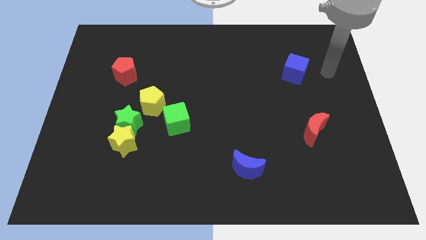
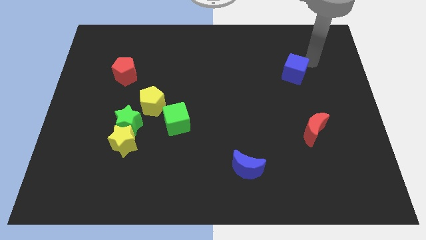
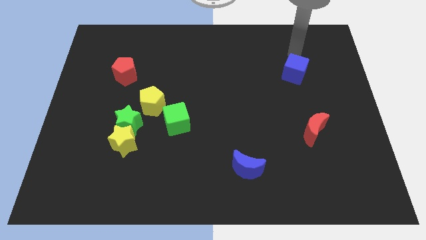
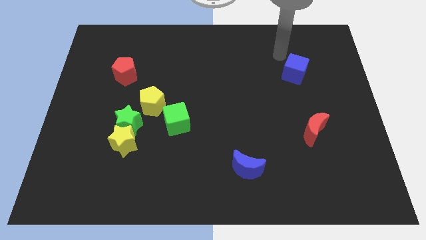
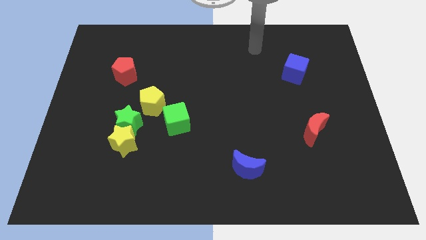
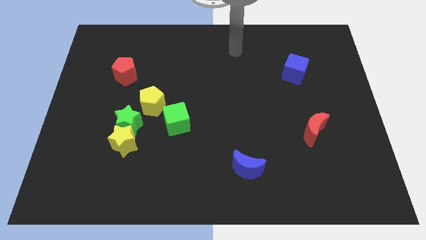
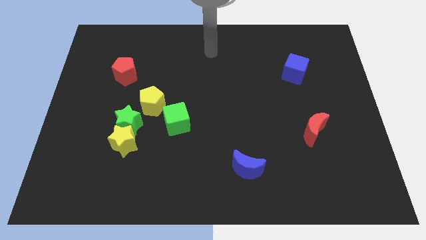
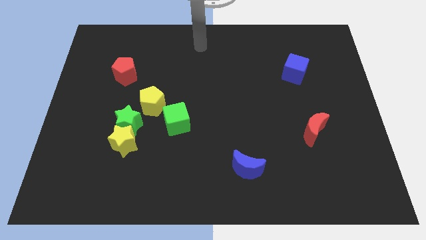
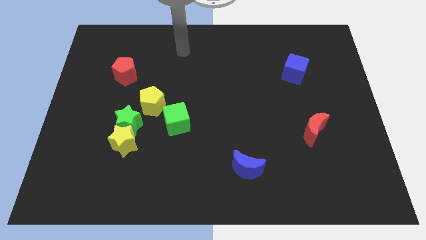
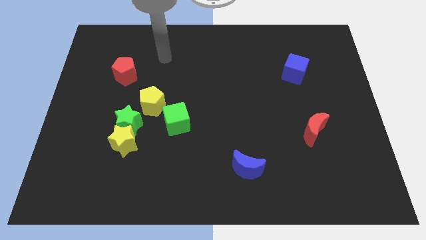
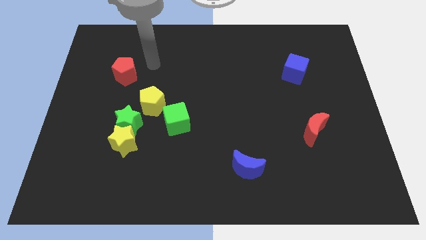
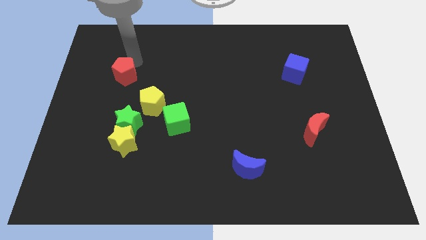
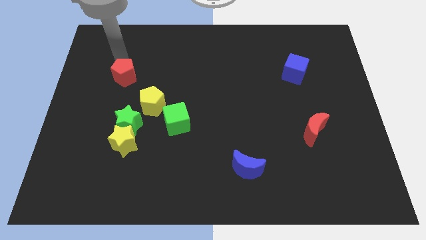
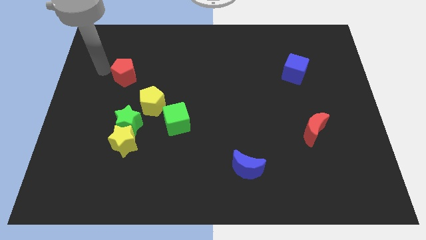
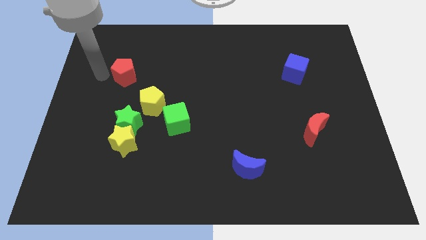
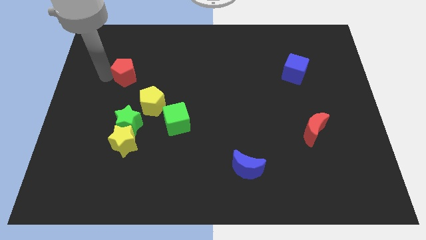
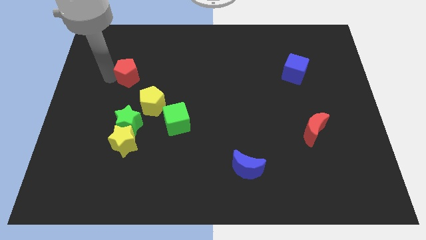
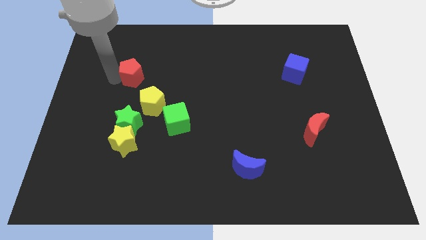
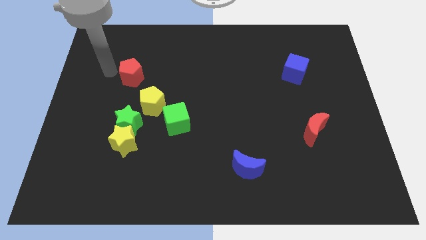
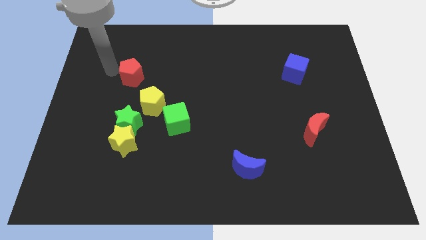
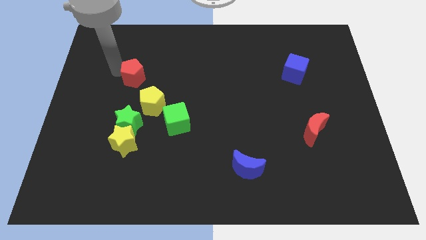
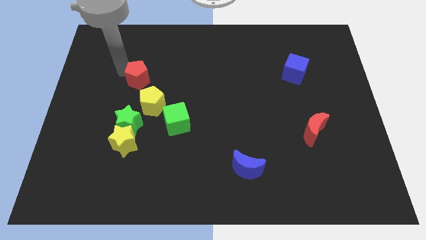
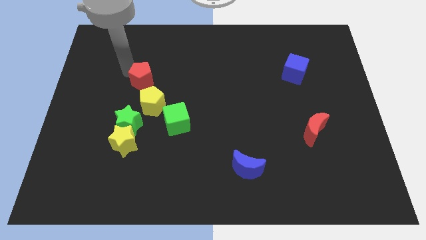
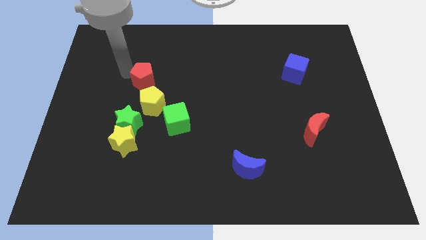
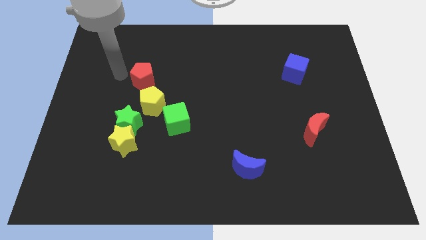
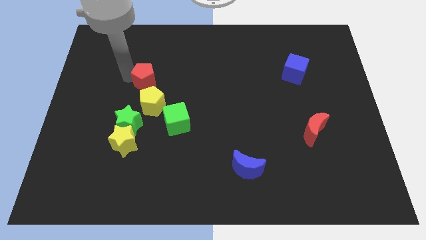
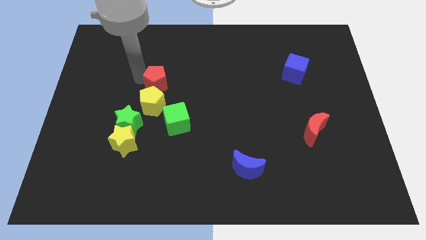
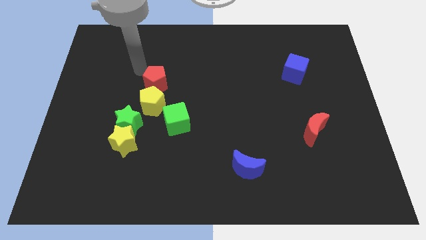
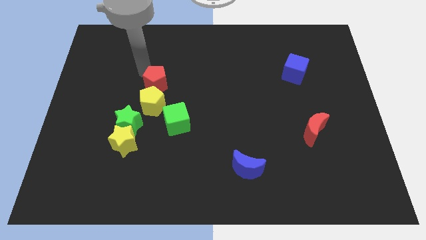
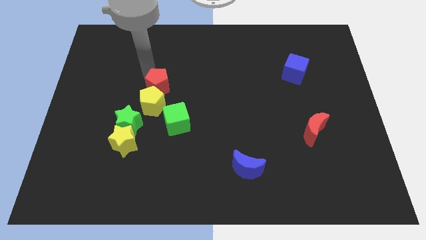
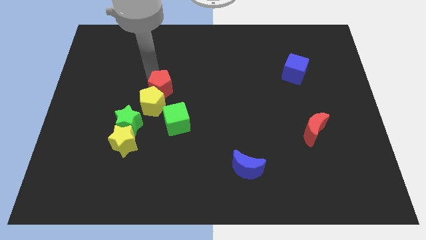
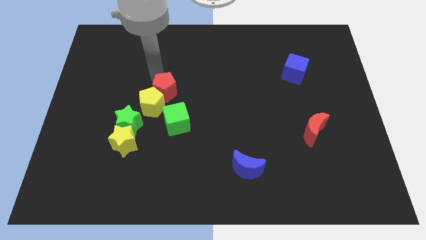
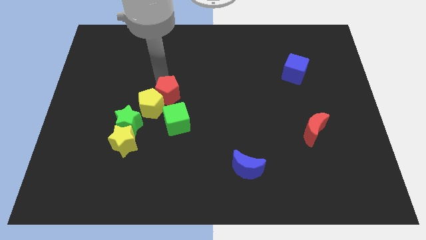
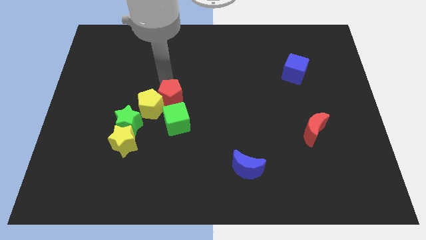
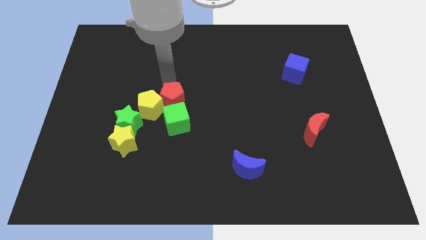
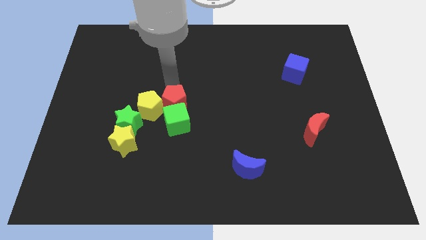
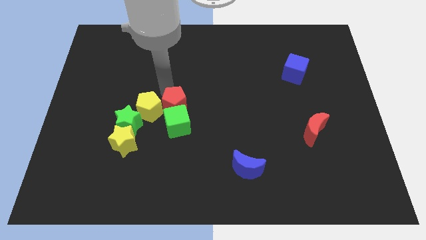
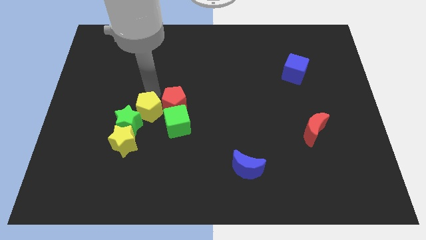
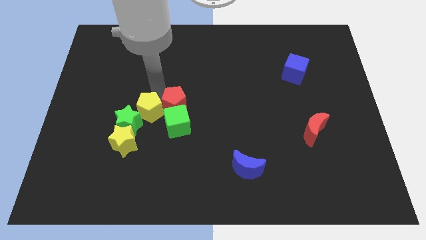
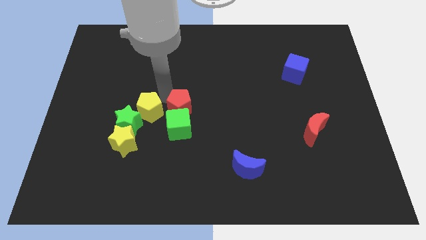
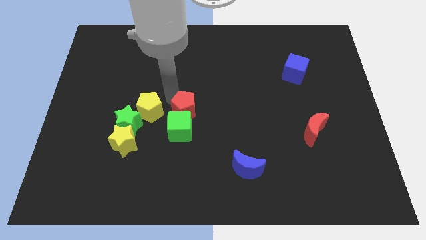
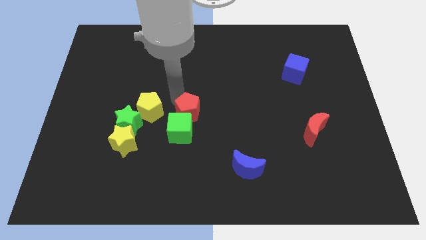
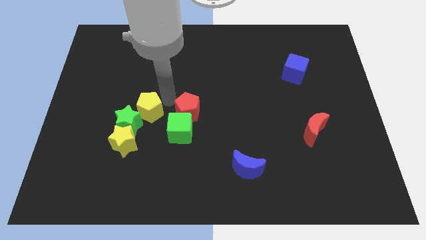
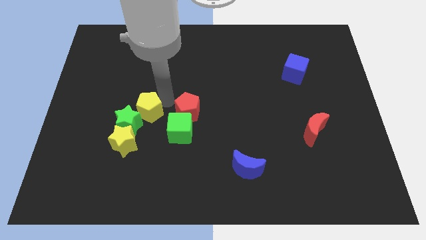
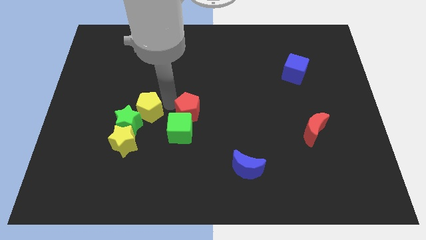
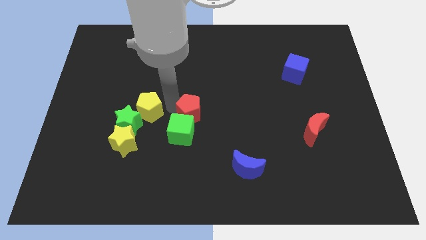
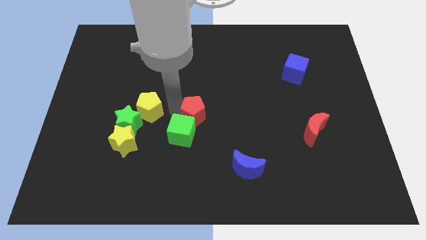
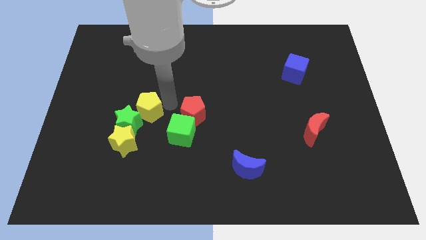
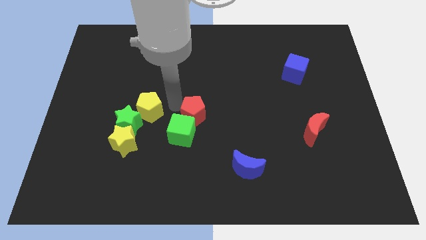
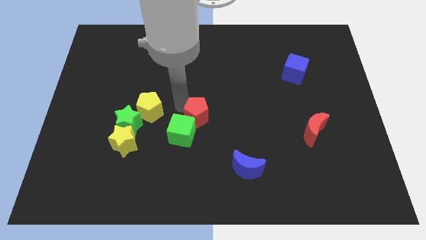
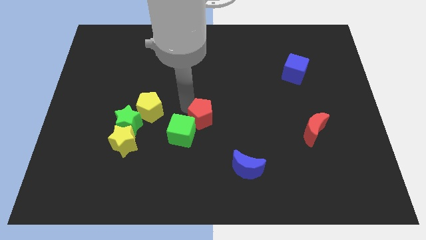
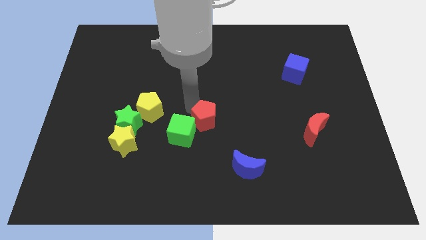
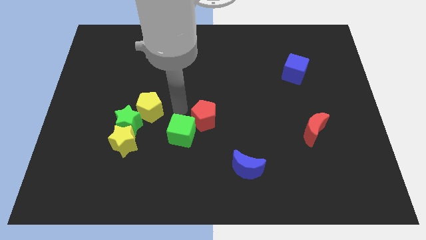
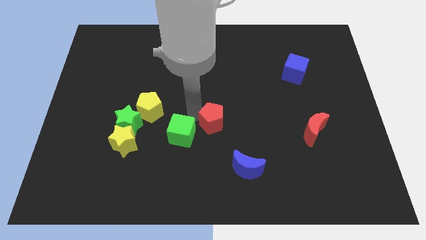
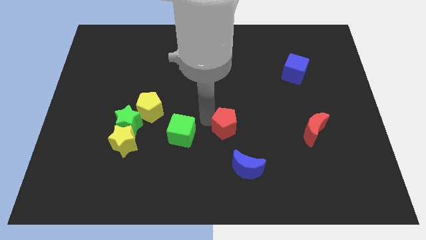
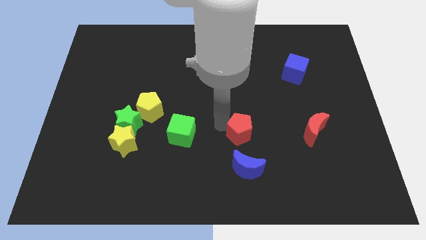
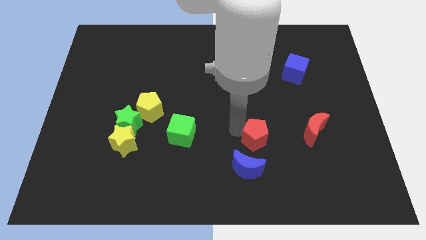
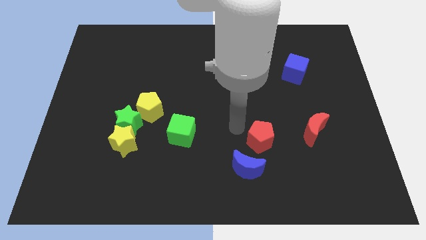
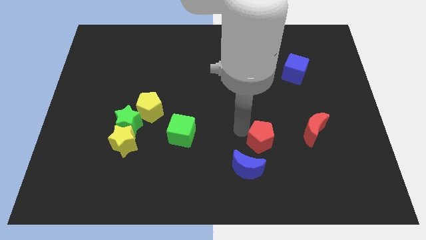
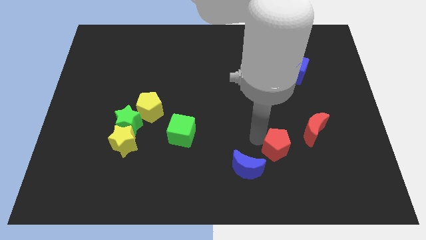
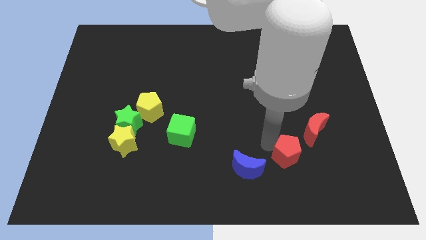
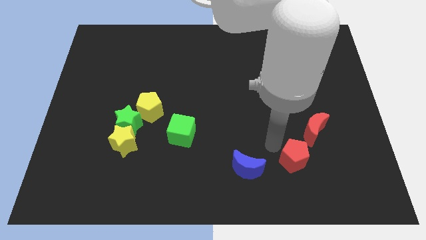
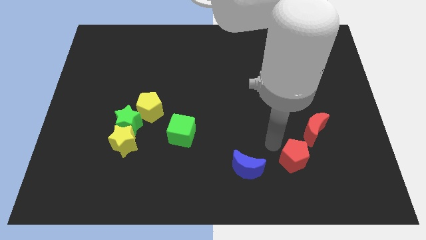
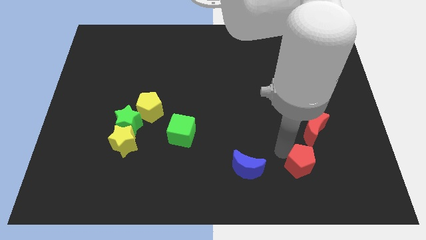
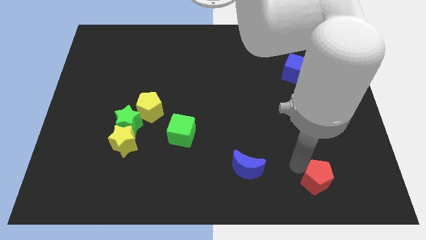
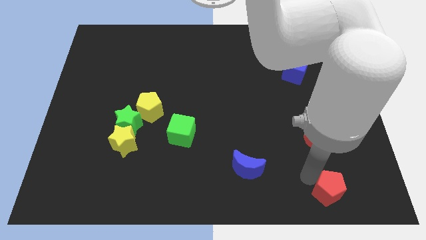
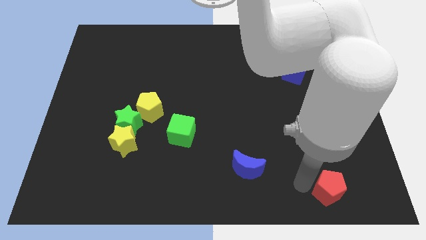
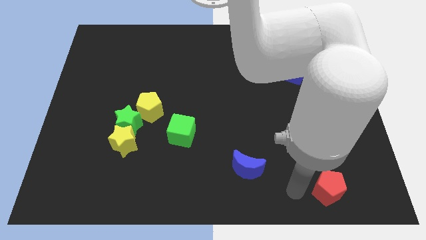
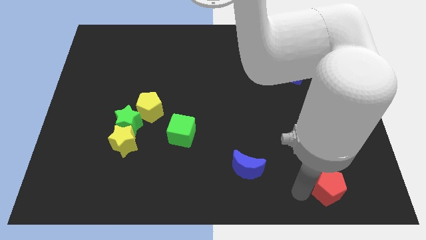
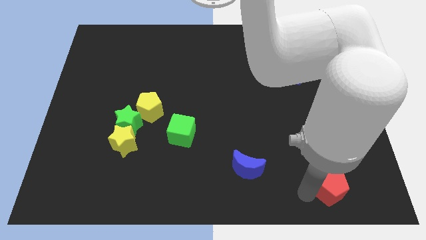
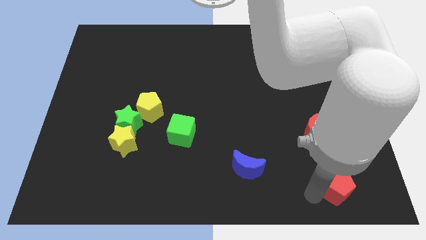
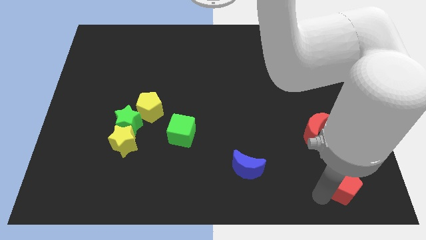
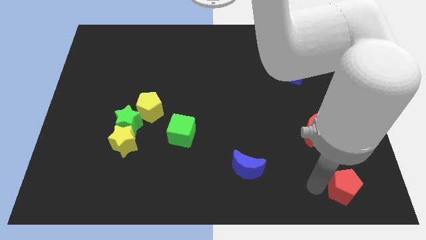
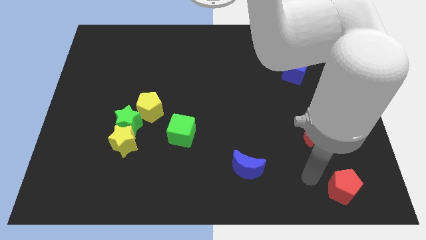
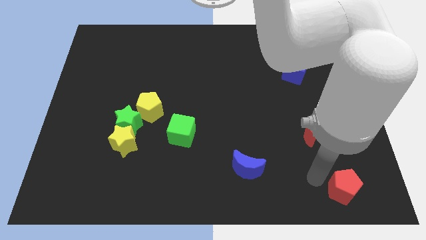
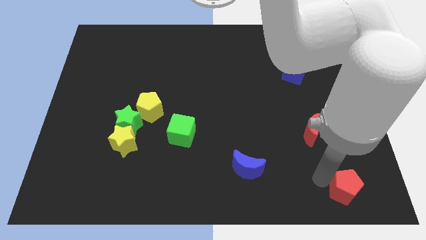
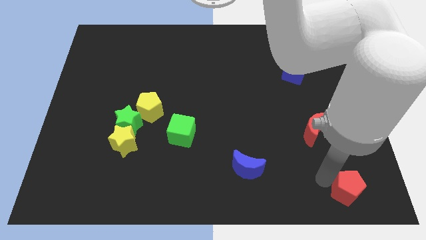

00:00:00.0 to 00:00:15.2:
push the red pentagon to the bottom right
